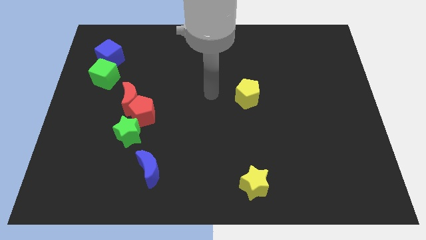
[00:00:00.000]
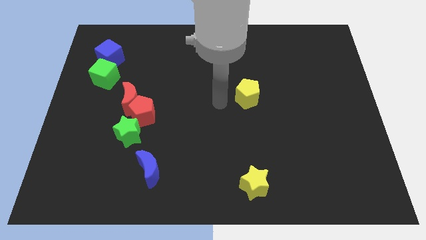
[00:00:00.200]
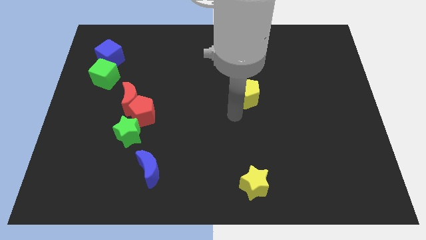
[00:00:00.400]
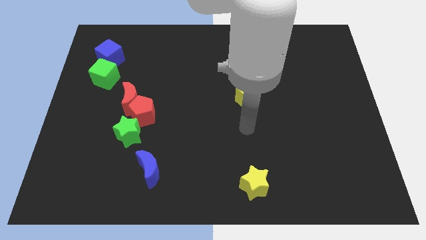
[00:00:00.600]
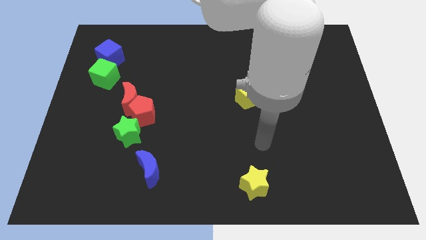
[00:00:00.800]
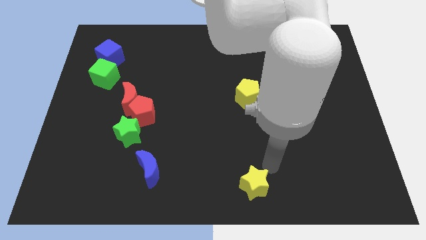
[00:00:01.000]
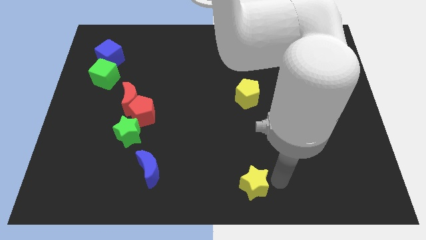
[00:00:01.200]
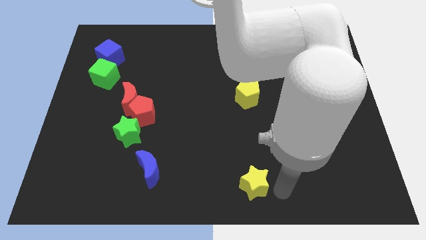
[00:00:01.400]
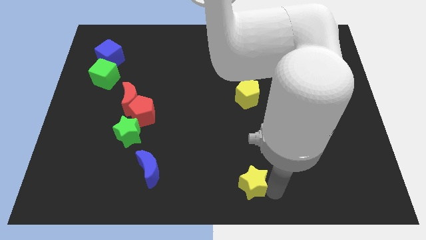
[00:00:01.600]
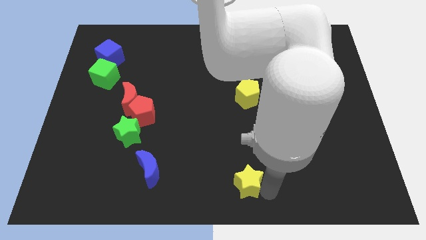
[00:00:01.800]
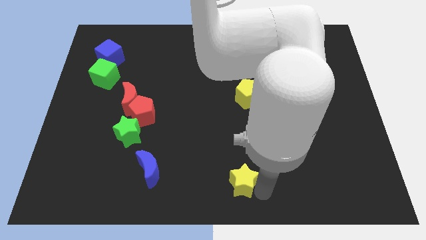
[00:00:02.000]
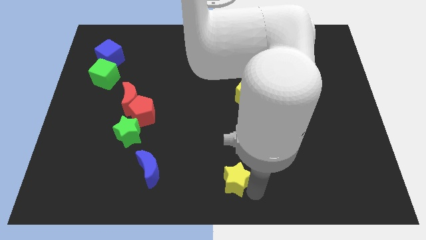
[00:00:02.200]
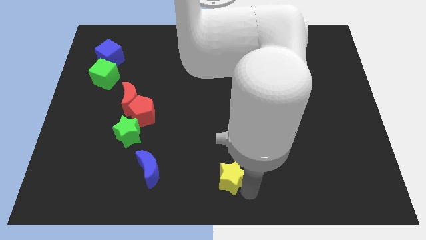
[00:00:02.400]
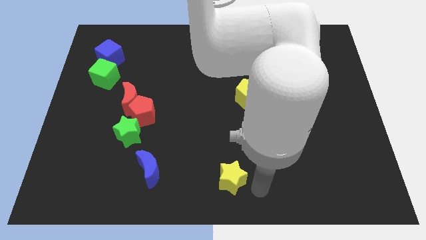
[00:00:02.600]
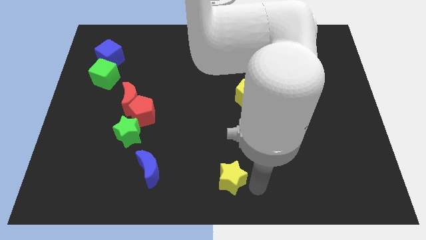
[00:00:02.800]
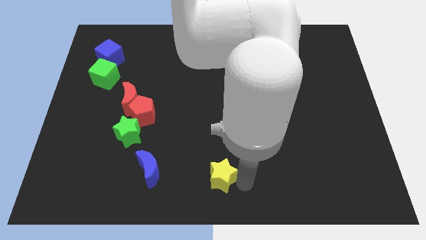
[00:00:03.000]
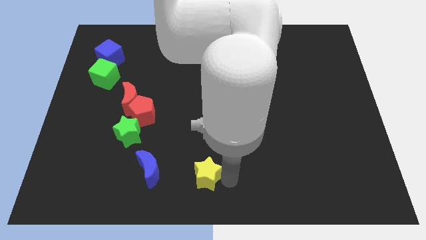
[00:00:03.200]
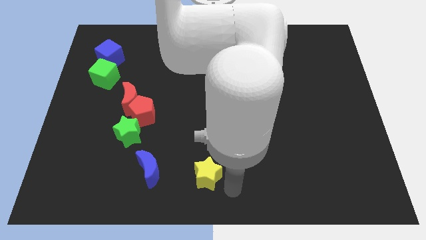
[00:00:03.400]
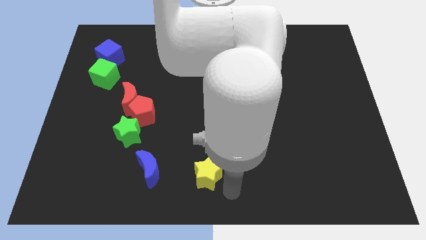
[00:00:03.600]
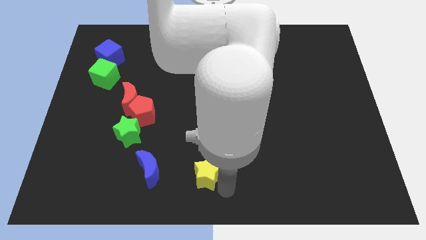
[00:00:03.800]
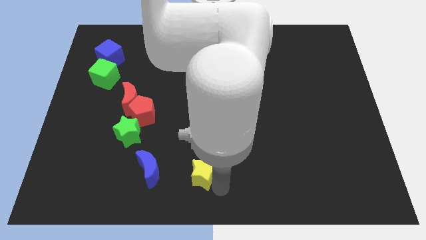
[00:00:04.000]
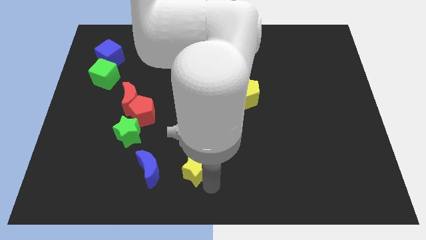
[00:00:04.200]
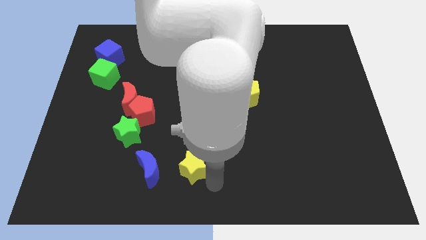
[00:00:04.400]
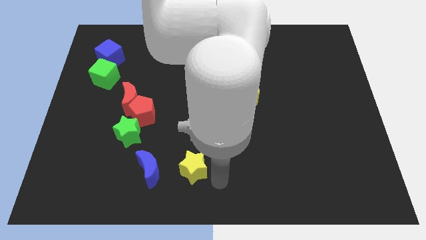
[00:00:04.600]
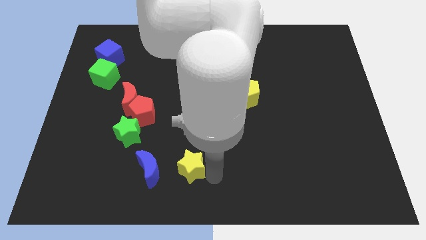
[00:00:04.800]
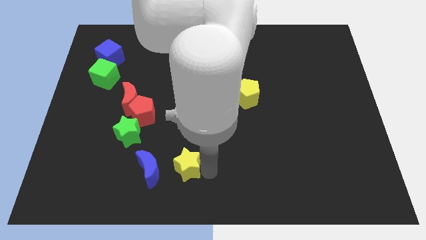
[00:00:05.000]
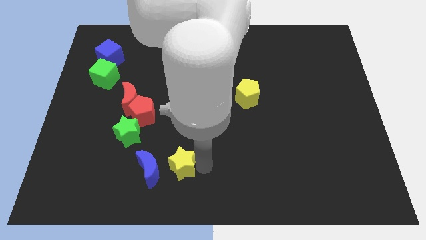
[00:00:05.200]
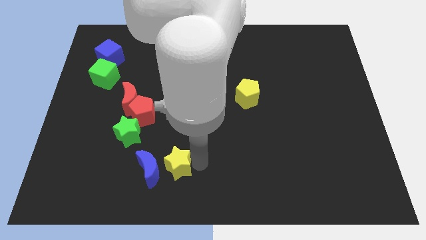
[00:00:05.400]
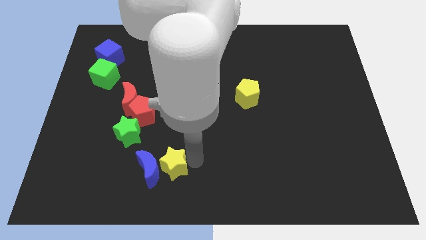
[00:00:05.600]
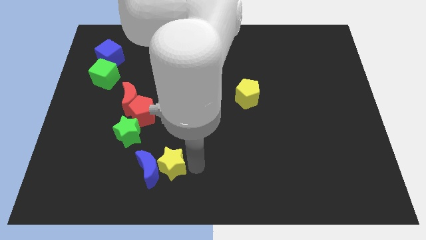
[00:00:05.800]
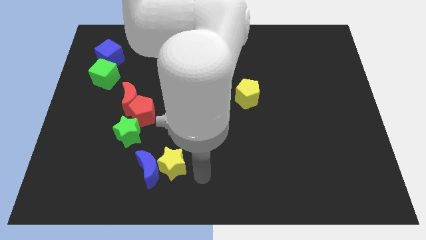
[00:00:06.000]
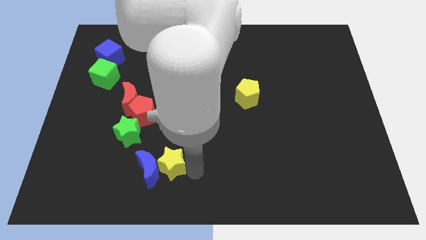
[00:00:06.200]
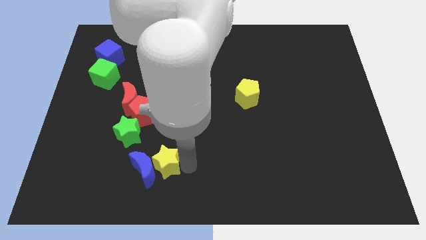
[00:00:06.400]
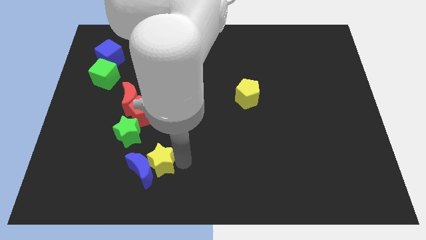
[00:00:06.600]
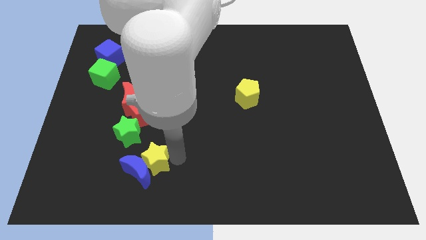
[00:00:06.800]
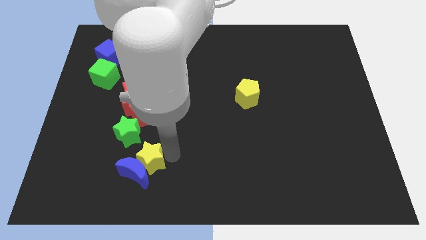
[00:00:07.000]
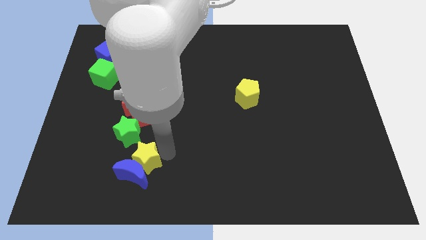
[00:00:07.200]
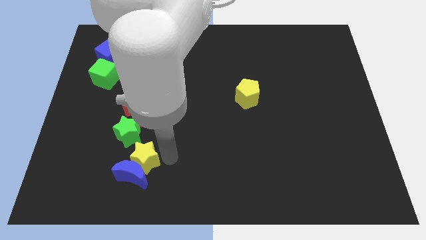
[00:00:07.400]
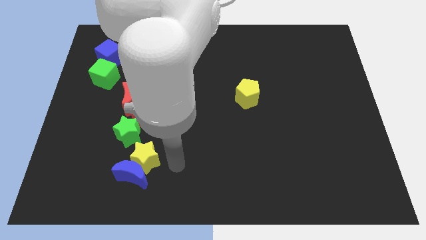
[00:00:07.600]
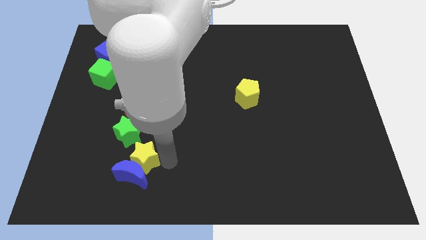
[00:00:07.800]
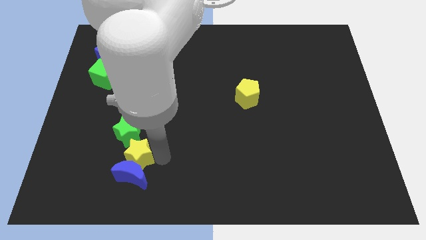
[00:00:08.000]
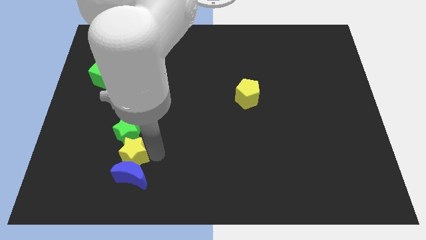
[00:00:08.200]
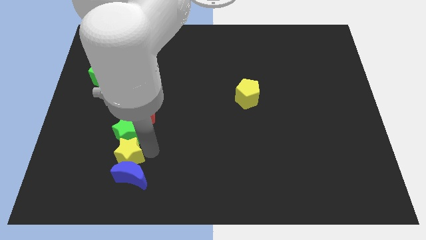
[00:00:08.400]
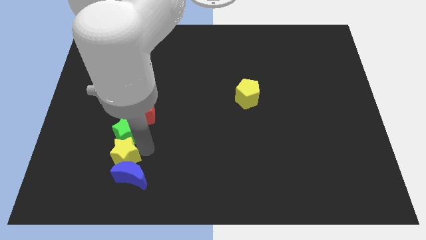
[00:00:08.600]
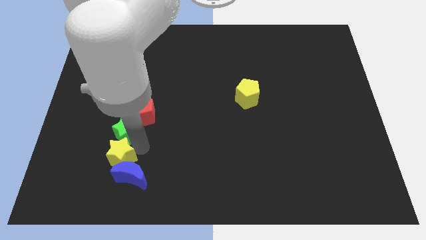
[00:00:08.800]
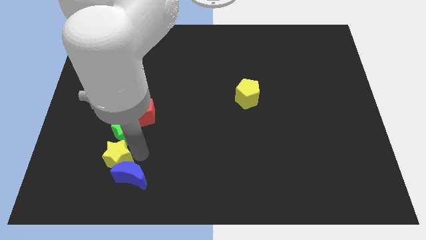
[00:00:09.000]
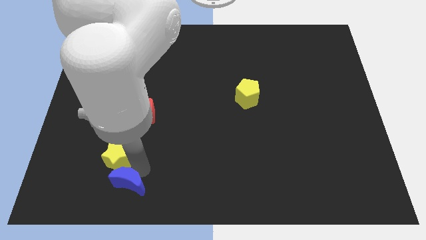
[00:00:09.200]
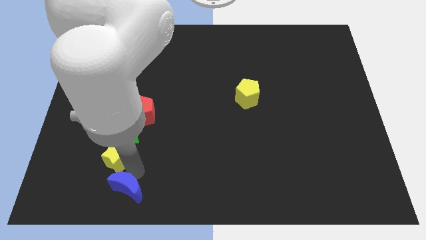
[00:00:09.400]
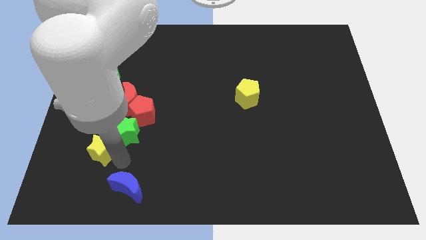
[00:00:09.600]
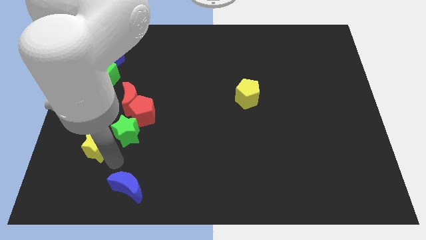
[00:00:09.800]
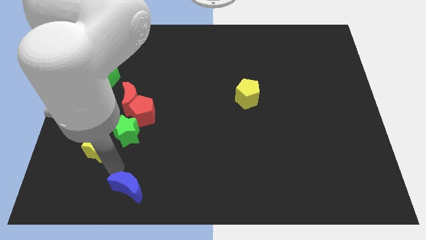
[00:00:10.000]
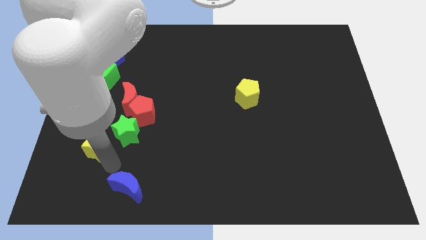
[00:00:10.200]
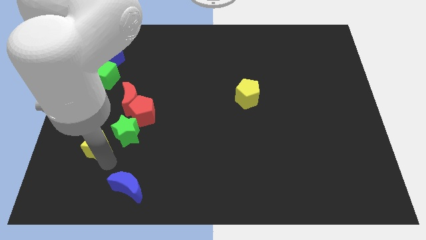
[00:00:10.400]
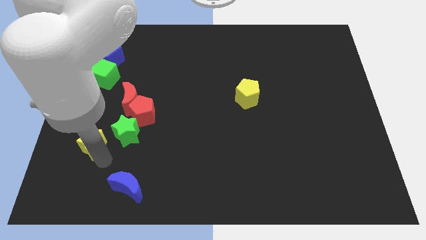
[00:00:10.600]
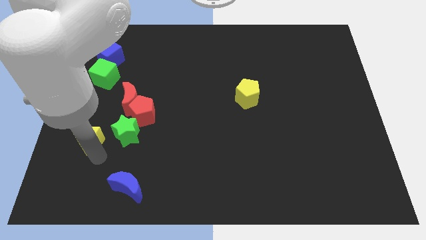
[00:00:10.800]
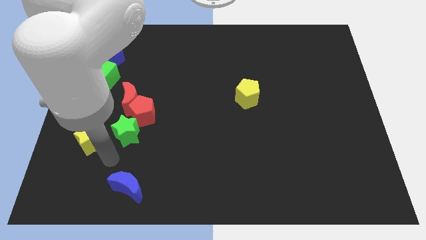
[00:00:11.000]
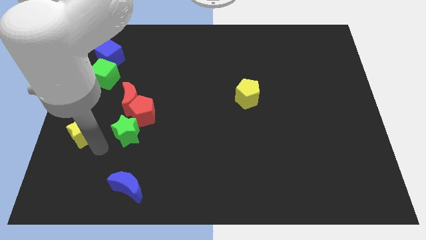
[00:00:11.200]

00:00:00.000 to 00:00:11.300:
slide the yellow star to the left side of the board

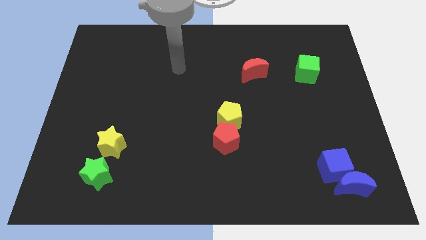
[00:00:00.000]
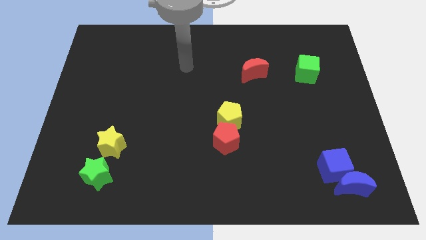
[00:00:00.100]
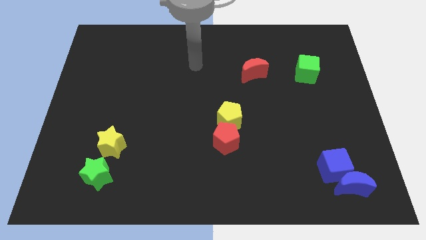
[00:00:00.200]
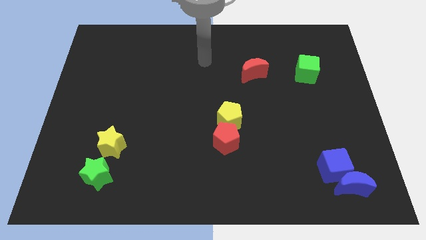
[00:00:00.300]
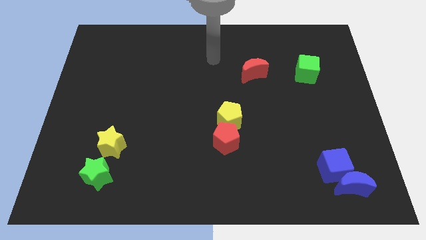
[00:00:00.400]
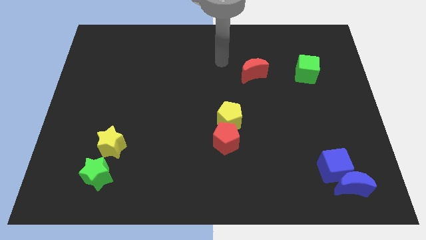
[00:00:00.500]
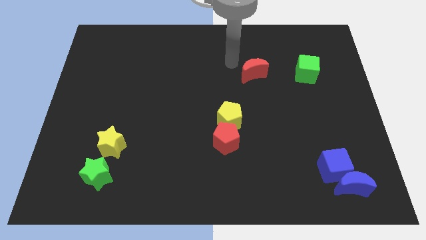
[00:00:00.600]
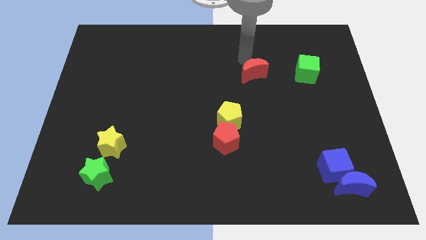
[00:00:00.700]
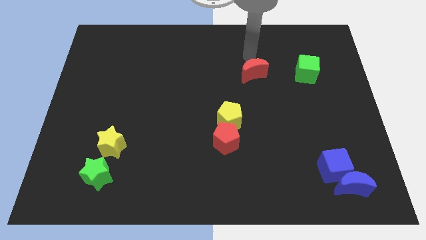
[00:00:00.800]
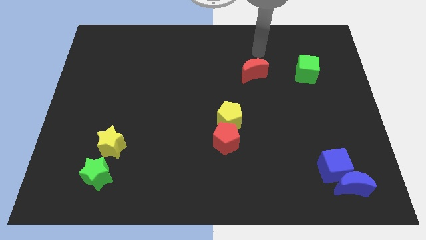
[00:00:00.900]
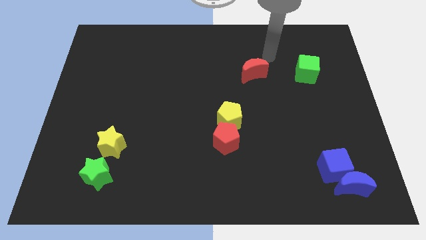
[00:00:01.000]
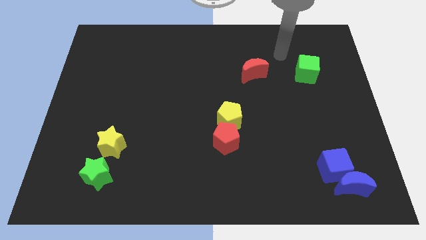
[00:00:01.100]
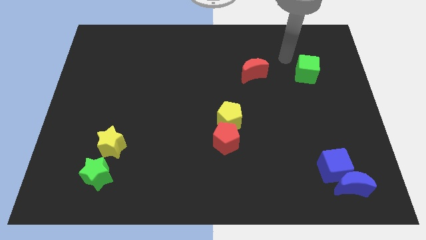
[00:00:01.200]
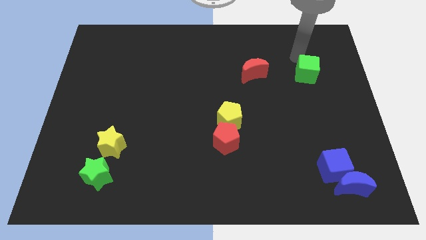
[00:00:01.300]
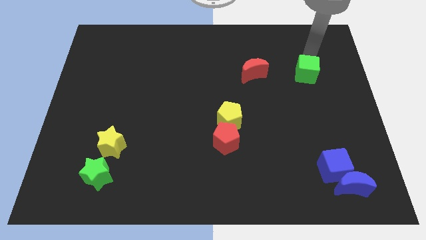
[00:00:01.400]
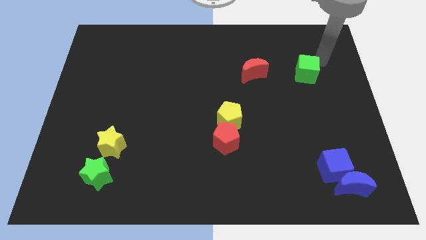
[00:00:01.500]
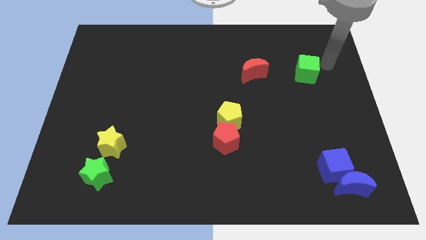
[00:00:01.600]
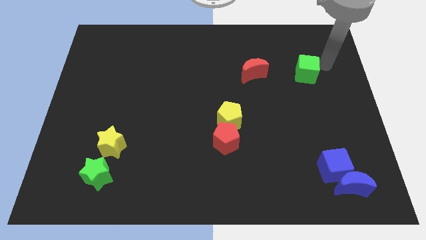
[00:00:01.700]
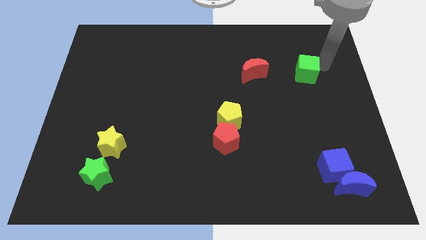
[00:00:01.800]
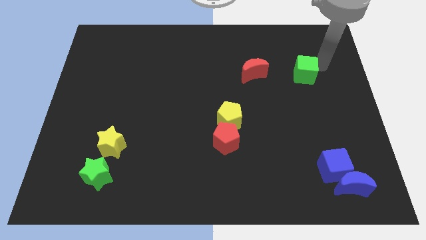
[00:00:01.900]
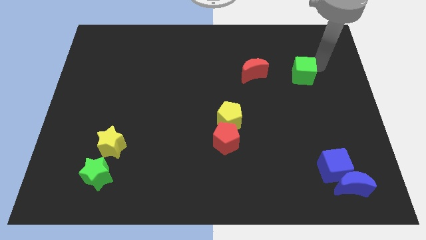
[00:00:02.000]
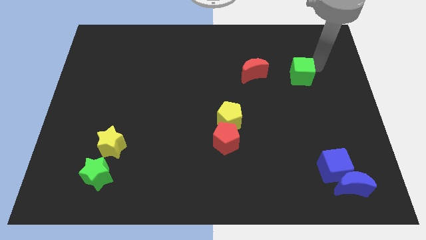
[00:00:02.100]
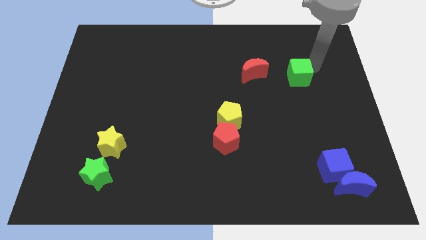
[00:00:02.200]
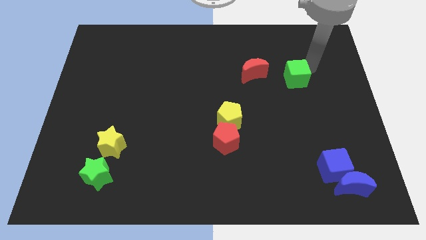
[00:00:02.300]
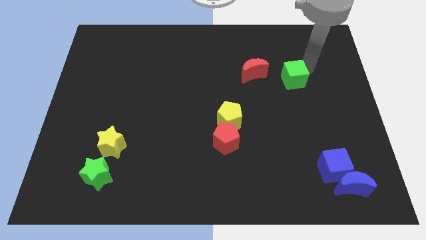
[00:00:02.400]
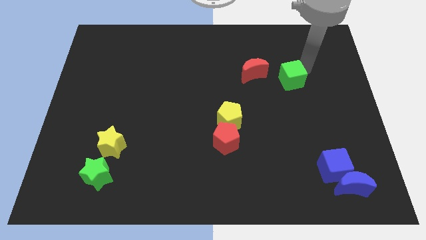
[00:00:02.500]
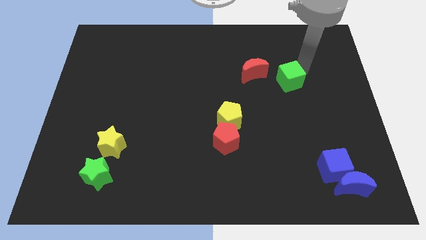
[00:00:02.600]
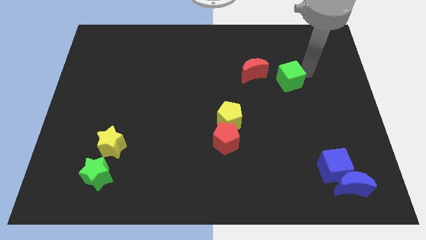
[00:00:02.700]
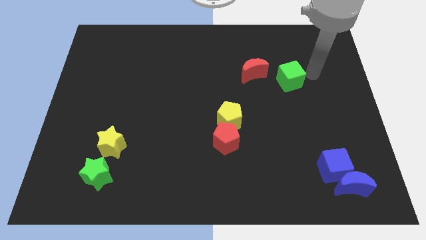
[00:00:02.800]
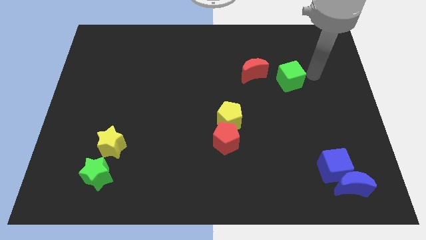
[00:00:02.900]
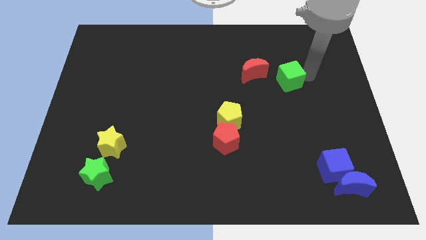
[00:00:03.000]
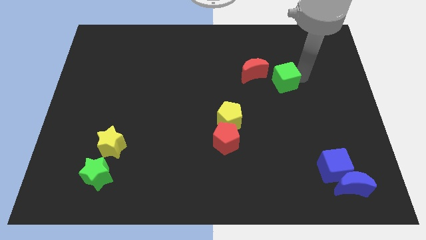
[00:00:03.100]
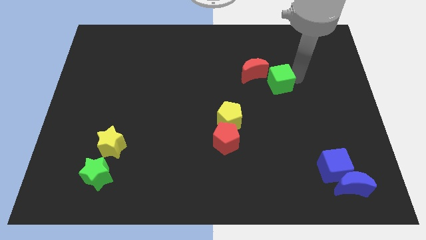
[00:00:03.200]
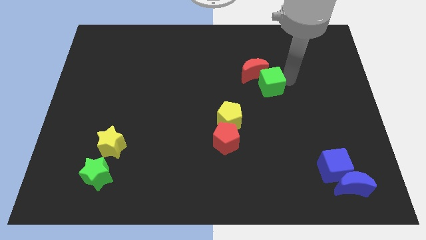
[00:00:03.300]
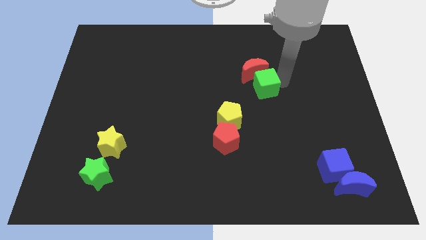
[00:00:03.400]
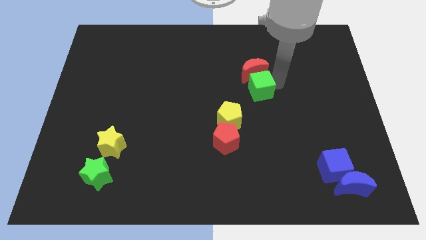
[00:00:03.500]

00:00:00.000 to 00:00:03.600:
move the green cube to the middle of the board
